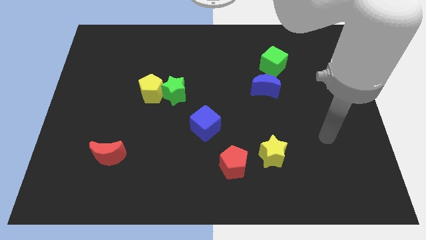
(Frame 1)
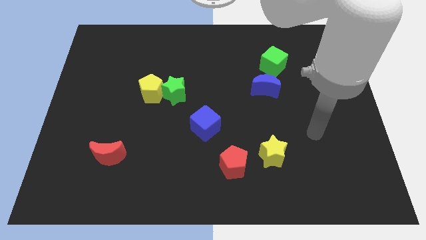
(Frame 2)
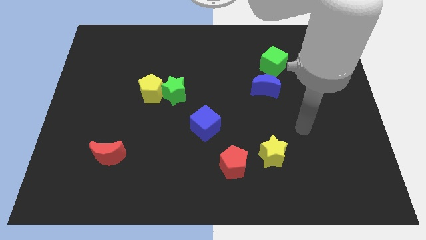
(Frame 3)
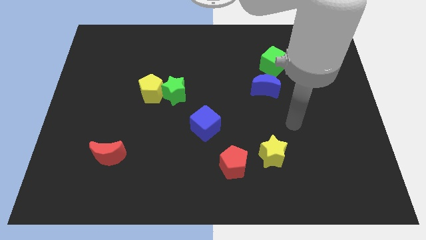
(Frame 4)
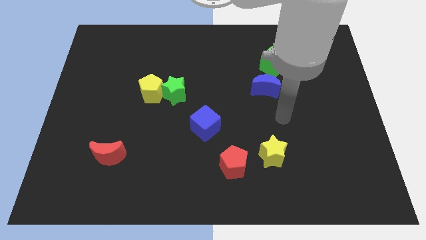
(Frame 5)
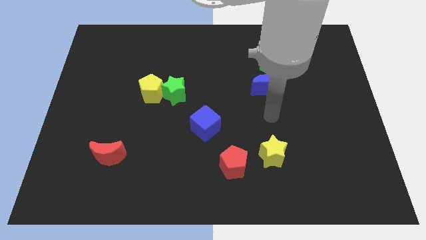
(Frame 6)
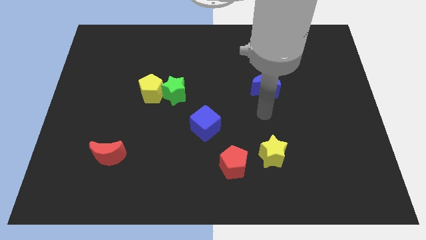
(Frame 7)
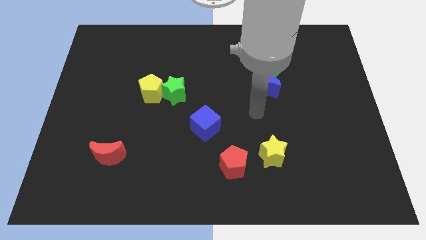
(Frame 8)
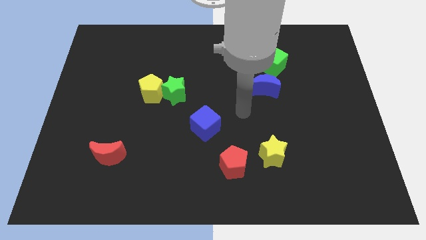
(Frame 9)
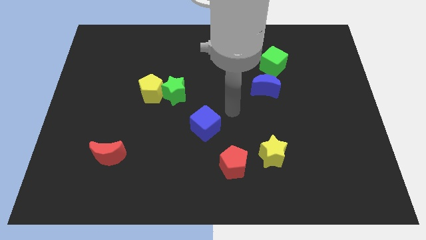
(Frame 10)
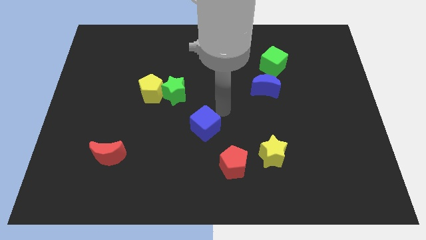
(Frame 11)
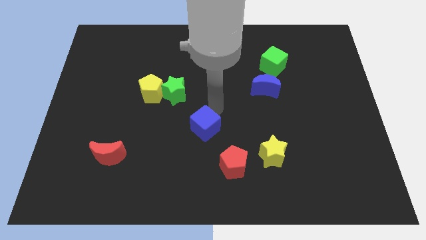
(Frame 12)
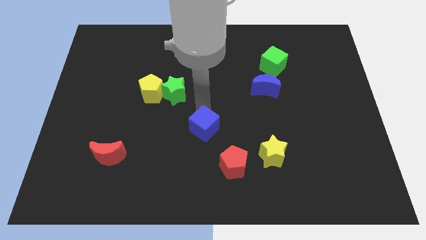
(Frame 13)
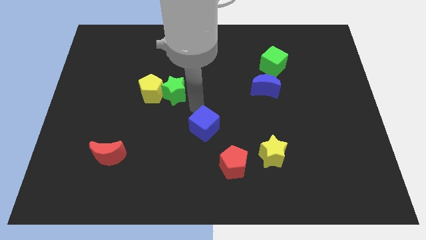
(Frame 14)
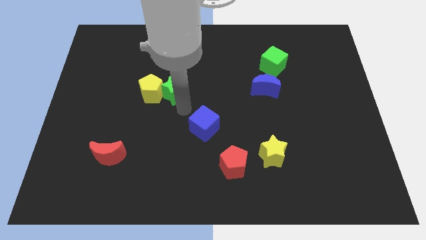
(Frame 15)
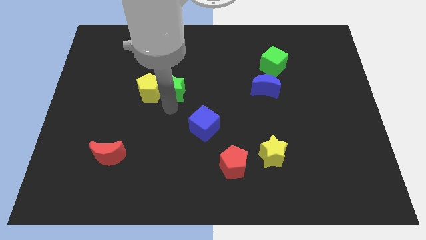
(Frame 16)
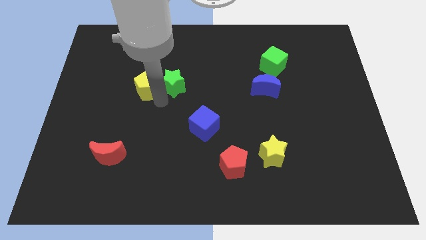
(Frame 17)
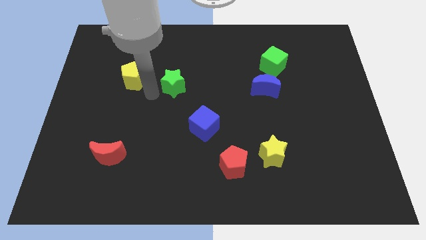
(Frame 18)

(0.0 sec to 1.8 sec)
move the green star away from the yellow pentagon

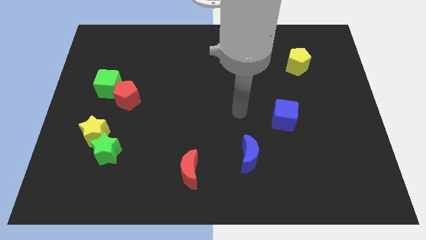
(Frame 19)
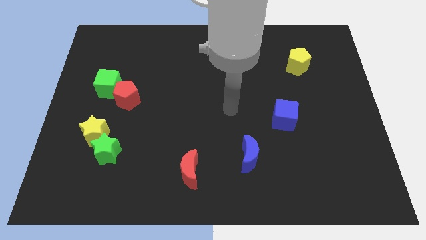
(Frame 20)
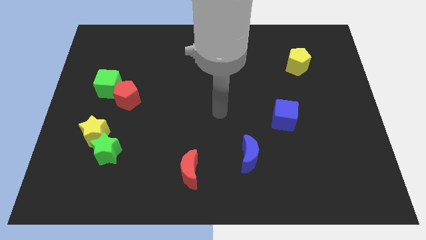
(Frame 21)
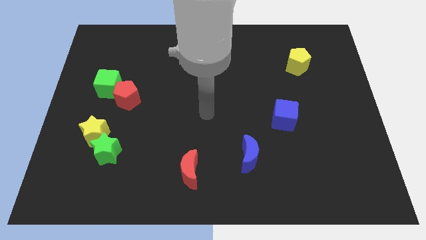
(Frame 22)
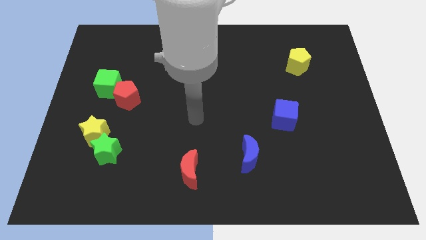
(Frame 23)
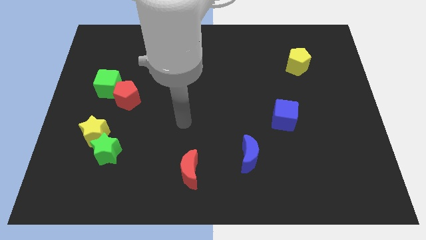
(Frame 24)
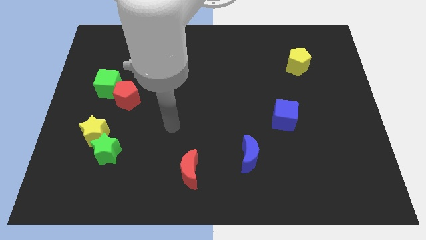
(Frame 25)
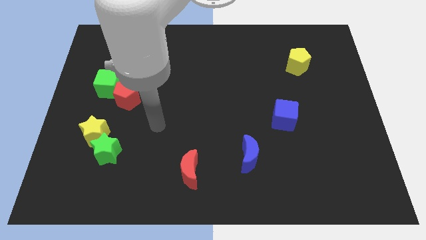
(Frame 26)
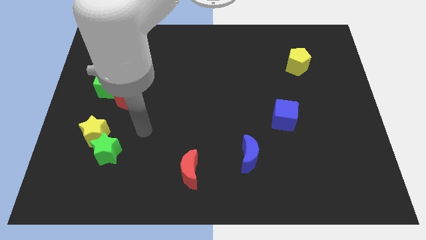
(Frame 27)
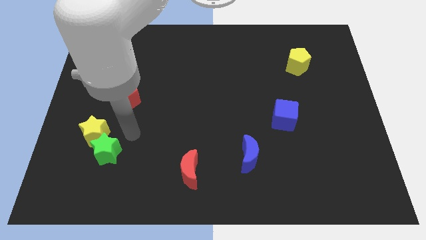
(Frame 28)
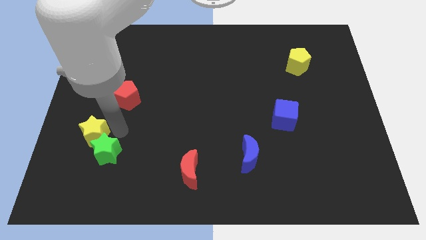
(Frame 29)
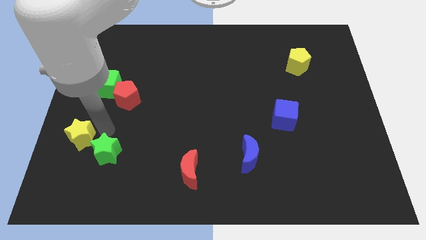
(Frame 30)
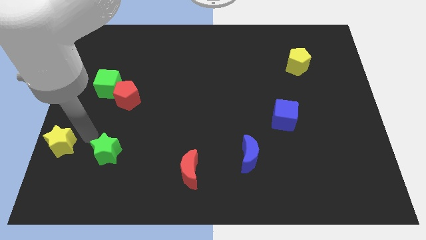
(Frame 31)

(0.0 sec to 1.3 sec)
pull the green star apart from the yellow star

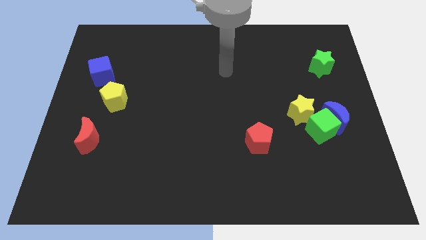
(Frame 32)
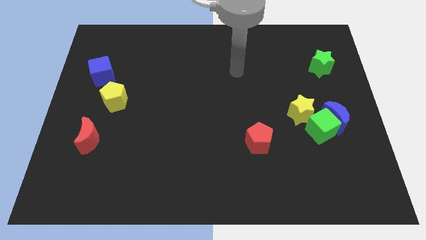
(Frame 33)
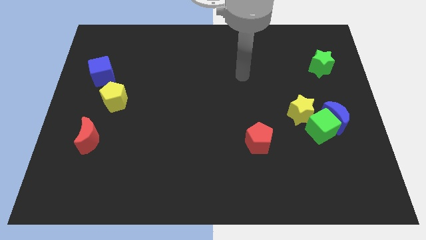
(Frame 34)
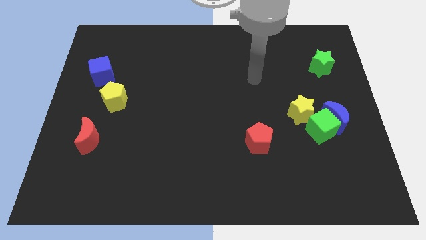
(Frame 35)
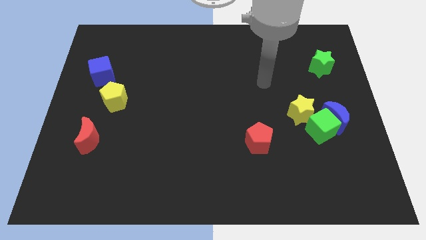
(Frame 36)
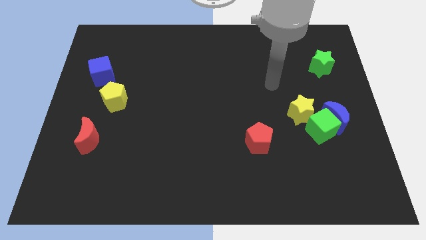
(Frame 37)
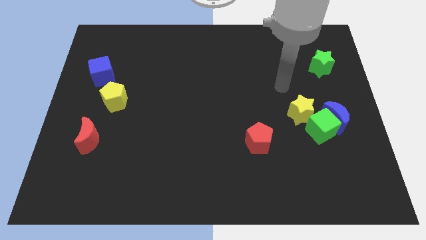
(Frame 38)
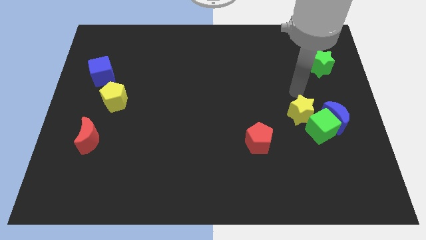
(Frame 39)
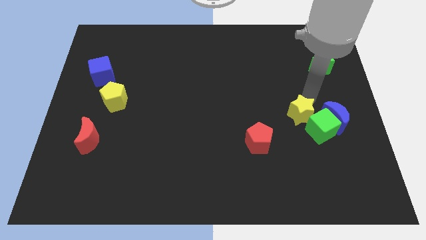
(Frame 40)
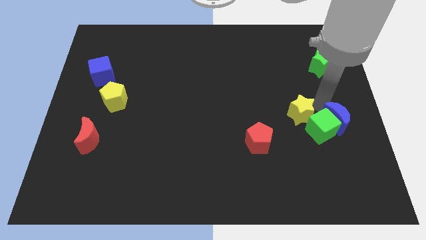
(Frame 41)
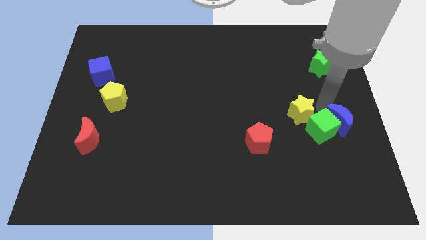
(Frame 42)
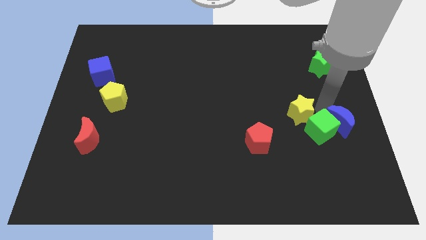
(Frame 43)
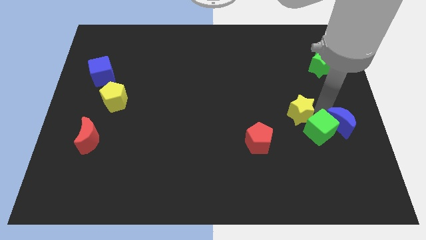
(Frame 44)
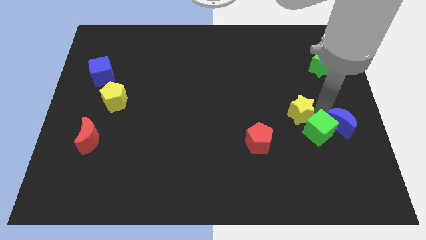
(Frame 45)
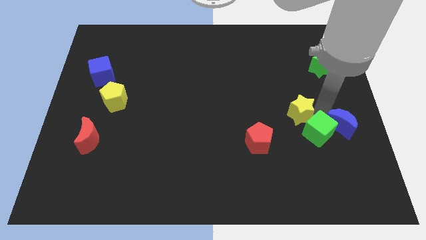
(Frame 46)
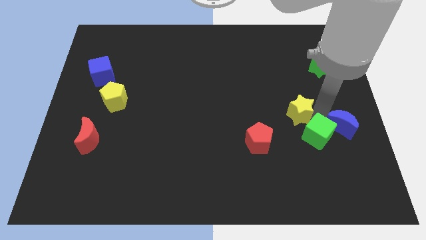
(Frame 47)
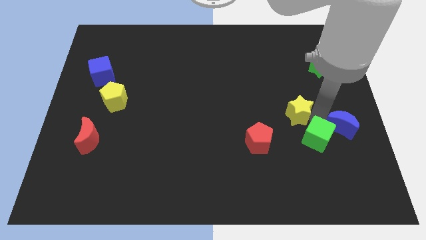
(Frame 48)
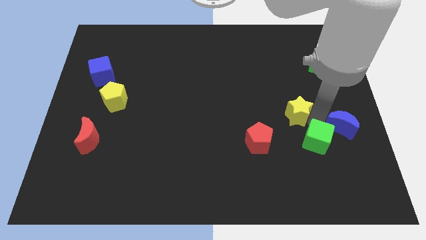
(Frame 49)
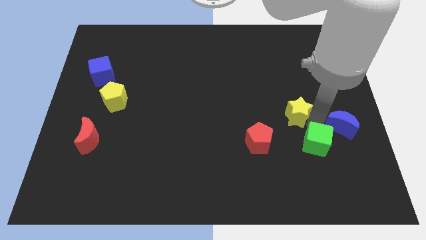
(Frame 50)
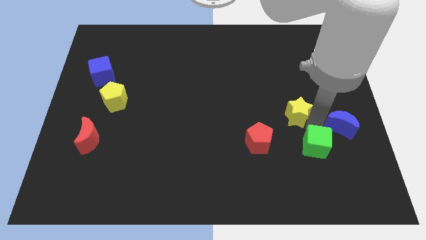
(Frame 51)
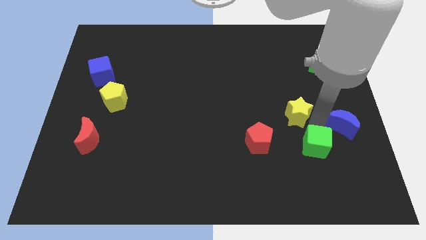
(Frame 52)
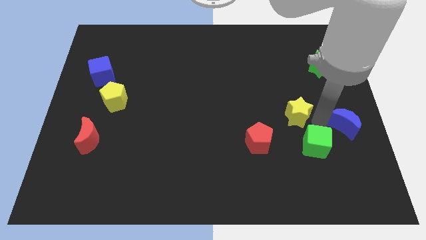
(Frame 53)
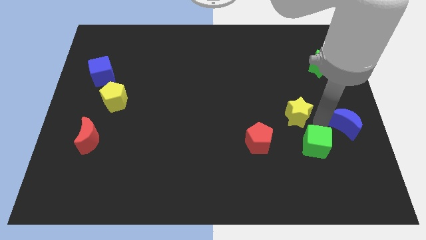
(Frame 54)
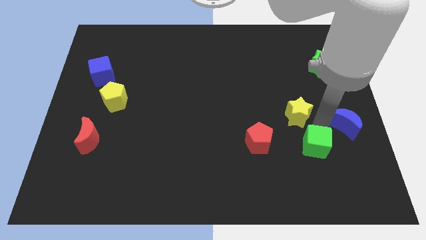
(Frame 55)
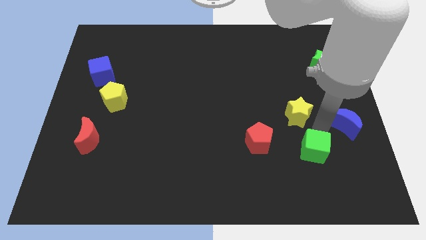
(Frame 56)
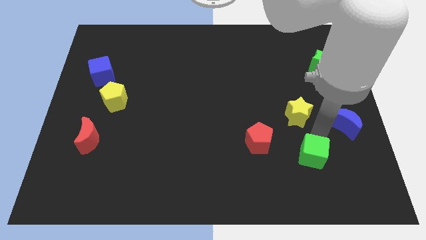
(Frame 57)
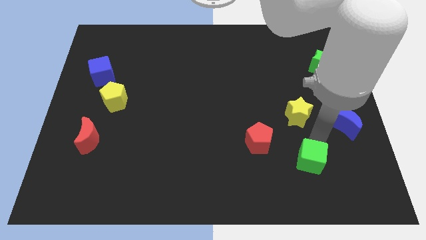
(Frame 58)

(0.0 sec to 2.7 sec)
separate the green cube from the blue moon and yellow star

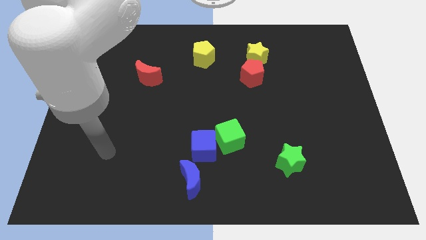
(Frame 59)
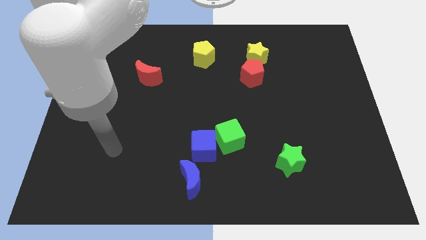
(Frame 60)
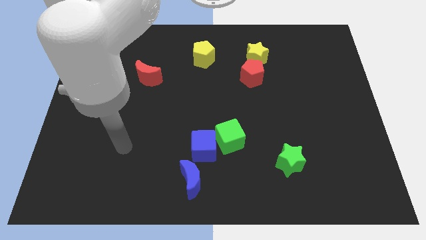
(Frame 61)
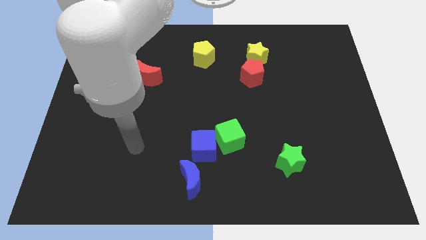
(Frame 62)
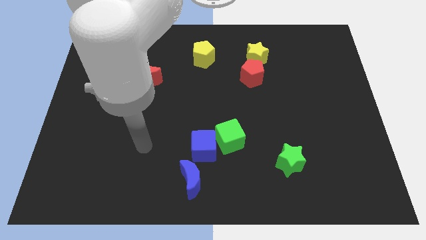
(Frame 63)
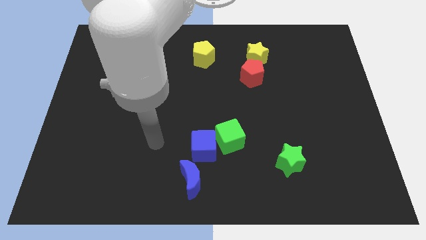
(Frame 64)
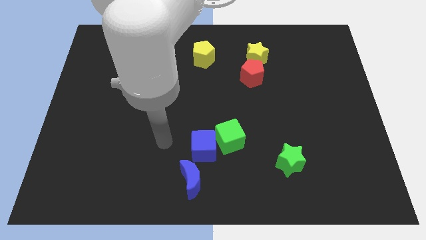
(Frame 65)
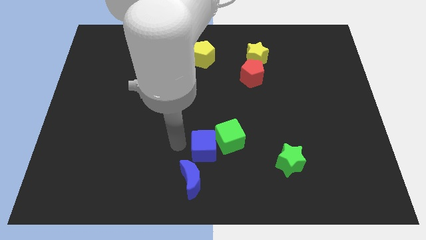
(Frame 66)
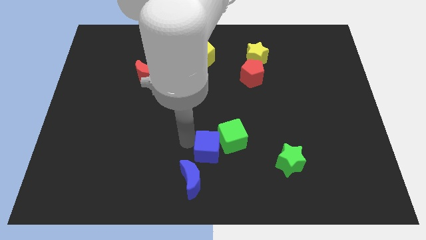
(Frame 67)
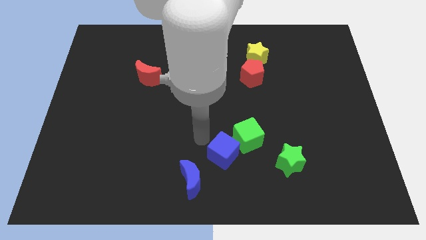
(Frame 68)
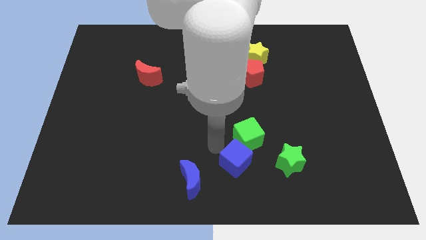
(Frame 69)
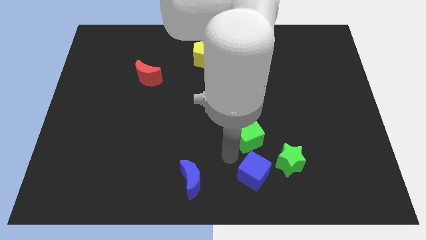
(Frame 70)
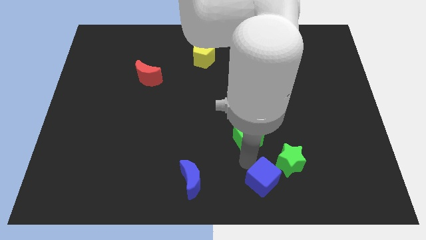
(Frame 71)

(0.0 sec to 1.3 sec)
separate the green cube from the blue cube

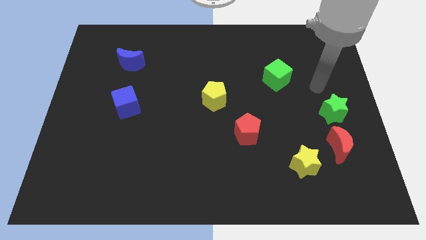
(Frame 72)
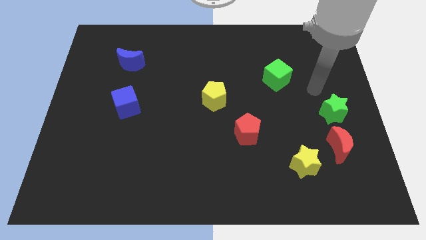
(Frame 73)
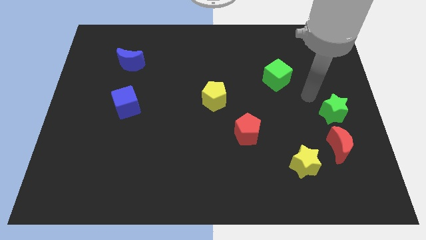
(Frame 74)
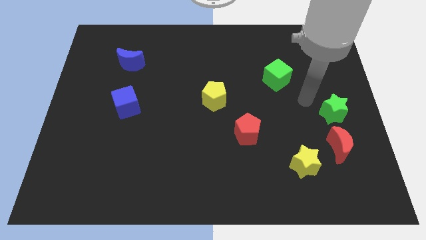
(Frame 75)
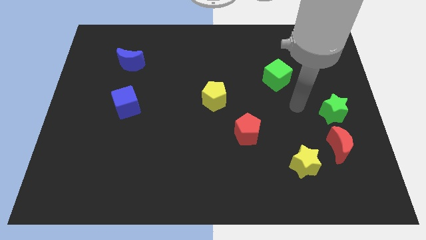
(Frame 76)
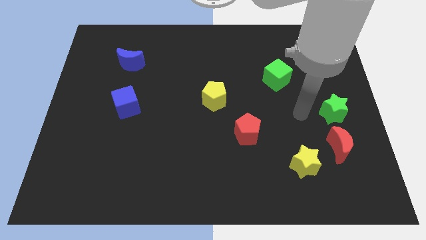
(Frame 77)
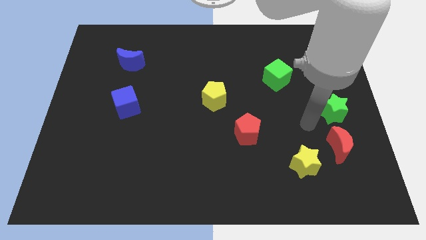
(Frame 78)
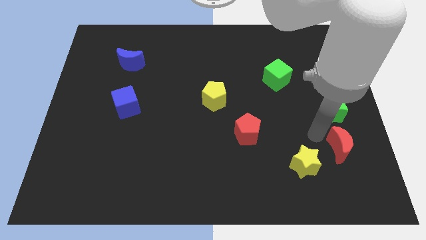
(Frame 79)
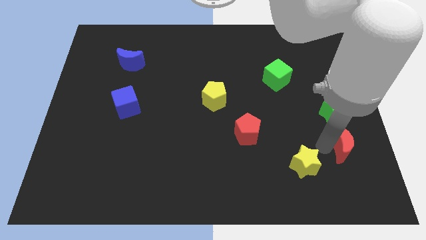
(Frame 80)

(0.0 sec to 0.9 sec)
separate the yellow star from the red moon

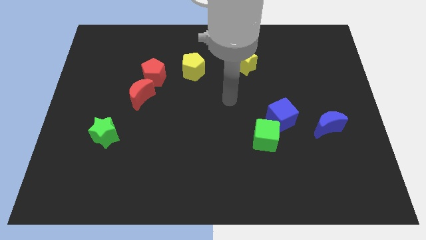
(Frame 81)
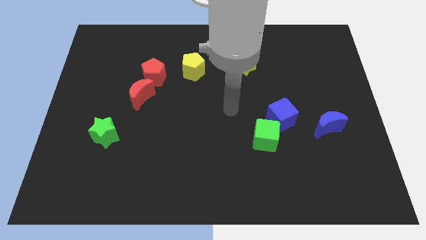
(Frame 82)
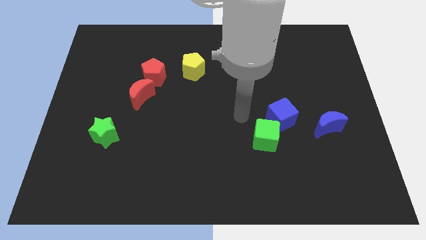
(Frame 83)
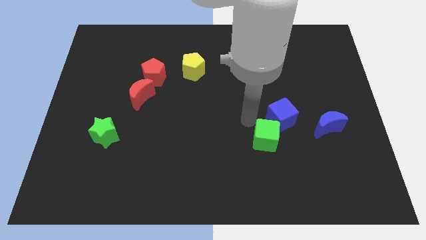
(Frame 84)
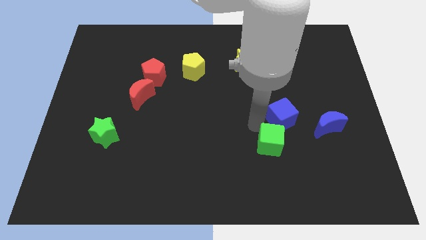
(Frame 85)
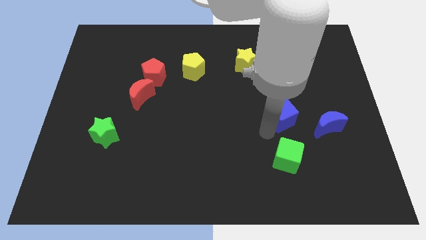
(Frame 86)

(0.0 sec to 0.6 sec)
separate the blue cube from the green cube

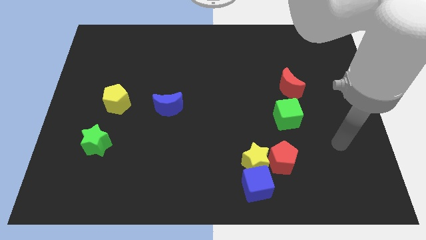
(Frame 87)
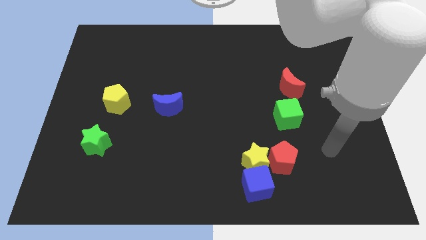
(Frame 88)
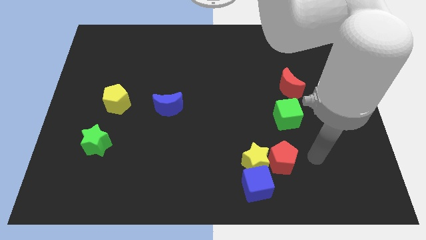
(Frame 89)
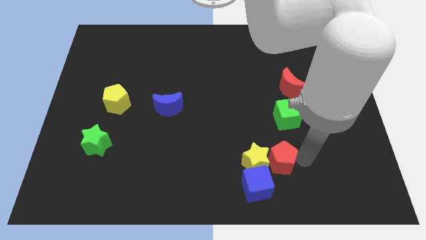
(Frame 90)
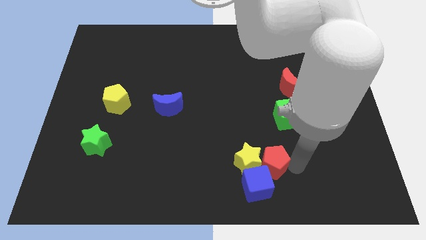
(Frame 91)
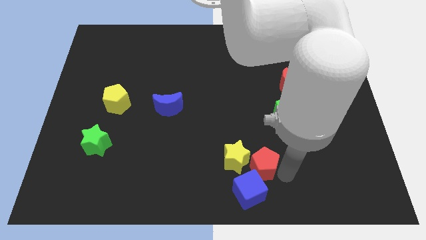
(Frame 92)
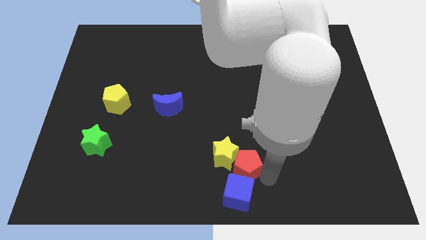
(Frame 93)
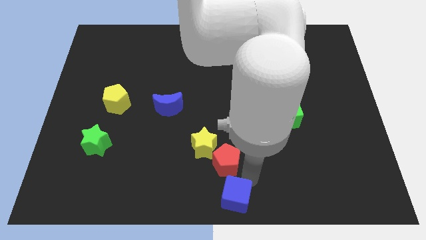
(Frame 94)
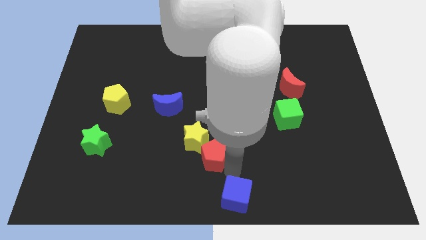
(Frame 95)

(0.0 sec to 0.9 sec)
move the yellow star away from the red pentagon and blue cube
